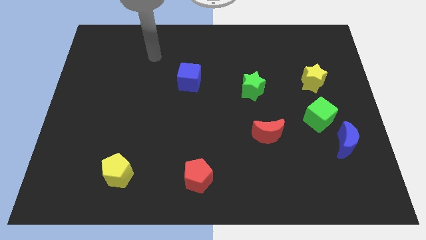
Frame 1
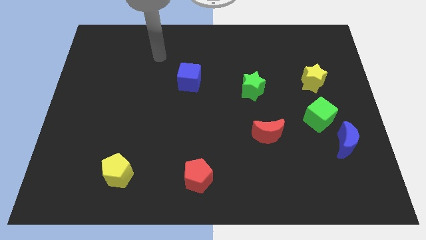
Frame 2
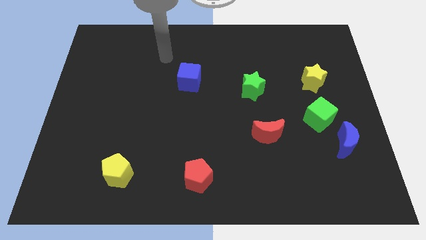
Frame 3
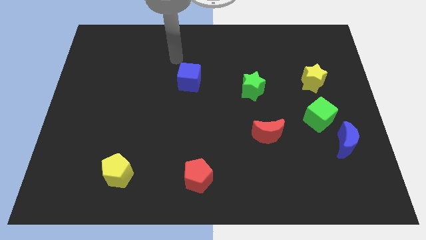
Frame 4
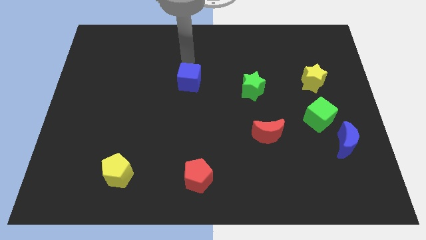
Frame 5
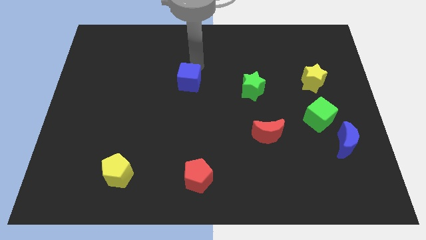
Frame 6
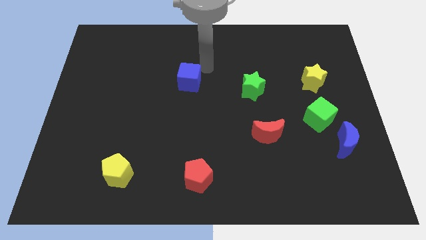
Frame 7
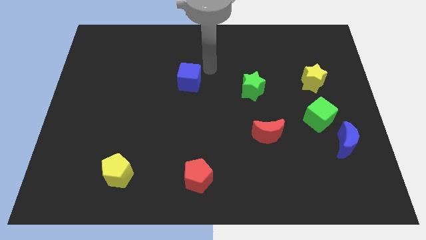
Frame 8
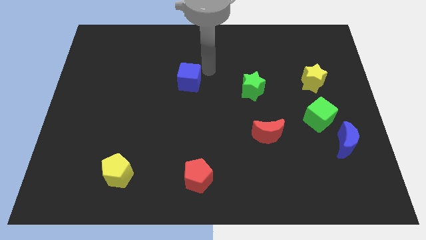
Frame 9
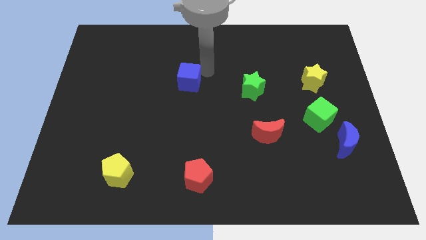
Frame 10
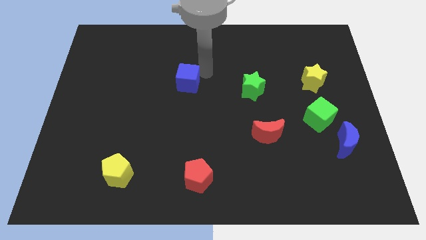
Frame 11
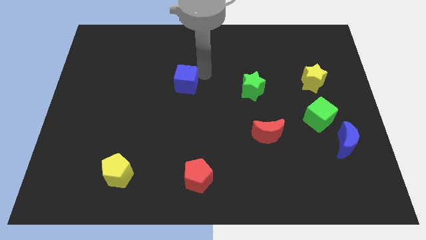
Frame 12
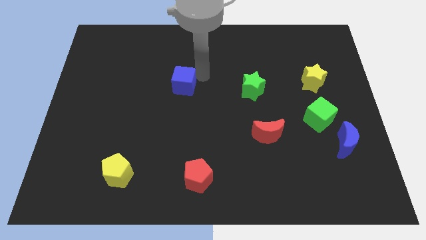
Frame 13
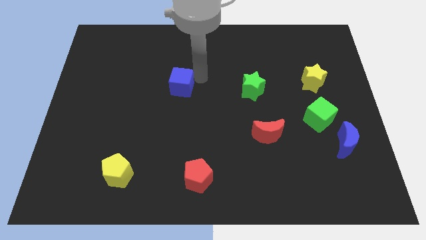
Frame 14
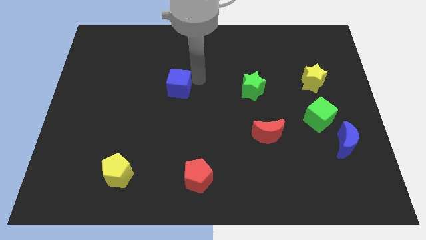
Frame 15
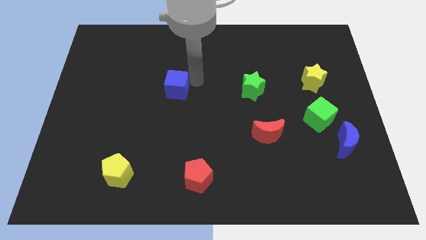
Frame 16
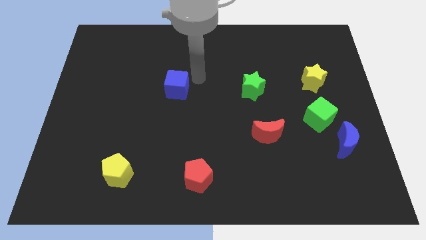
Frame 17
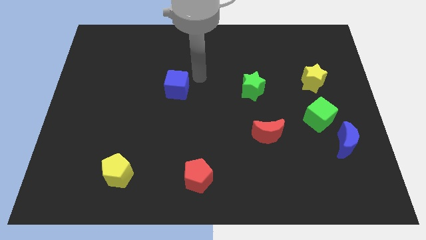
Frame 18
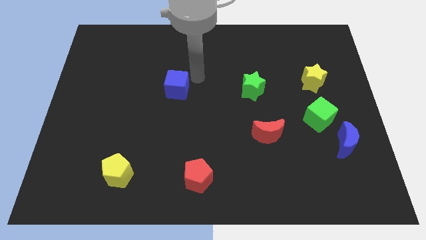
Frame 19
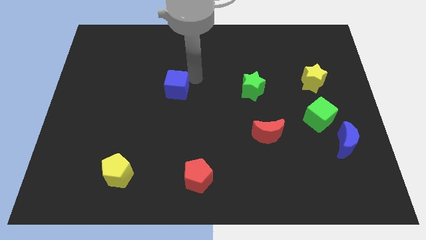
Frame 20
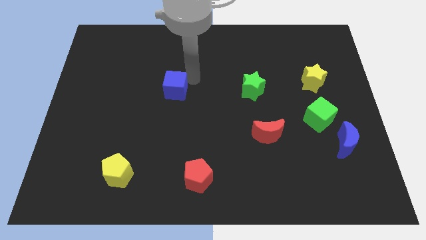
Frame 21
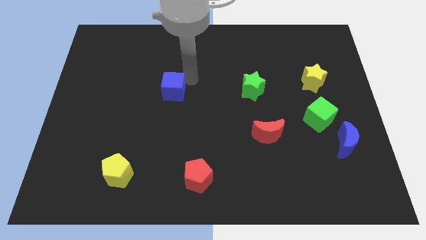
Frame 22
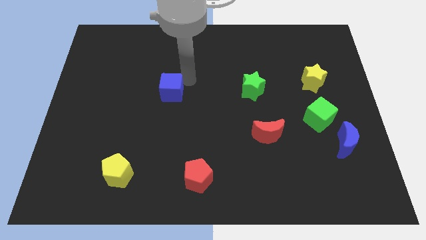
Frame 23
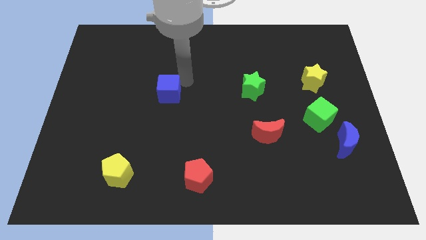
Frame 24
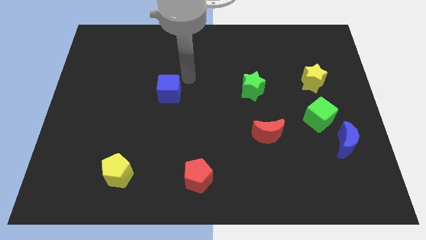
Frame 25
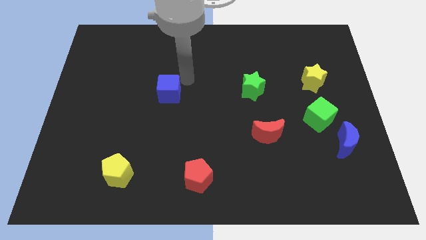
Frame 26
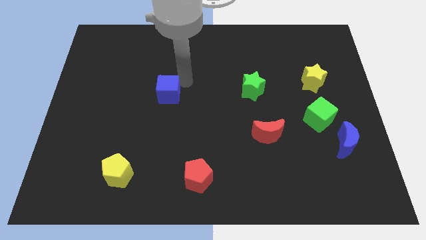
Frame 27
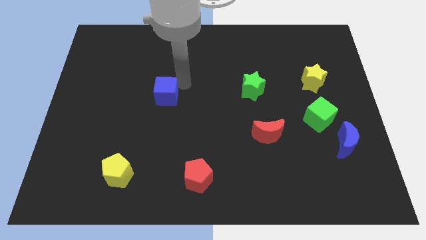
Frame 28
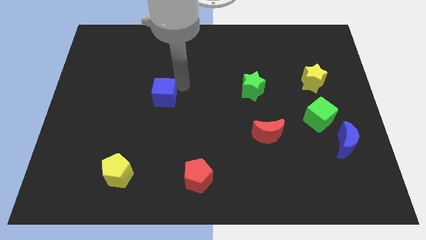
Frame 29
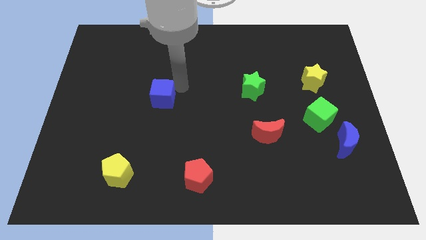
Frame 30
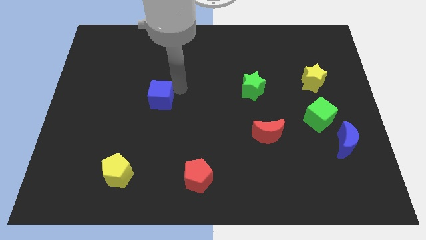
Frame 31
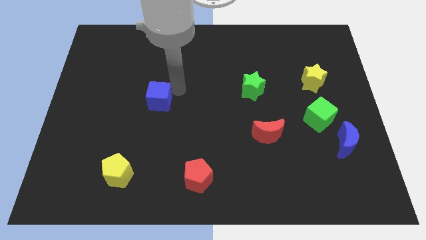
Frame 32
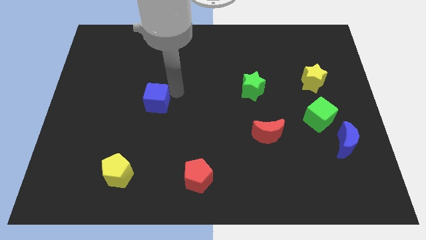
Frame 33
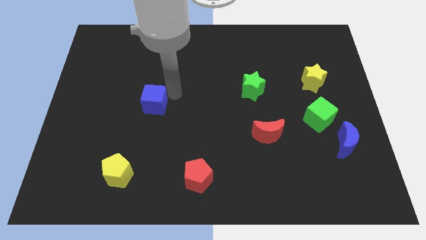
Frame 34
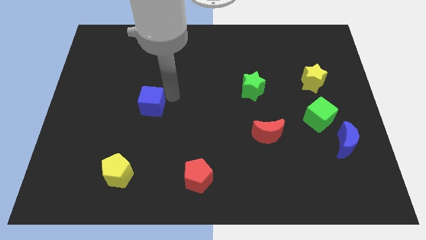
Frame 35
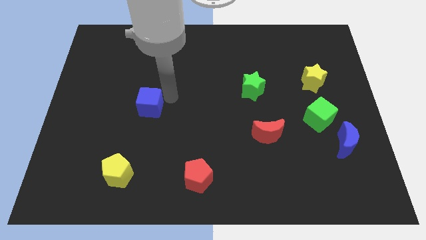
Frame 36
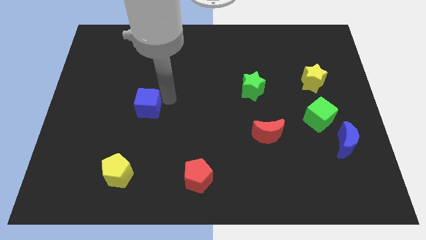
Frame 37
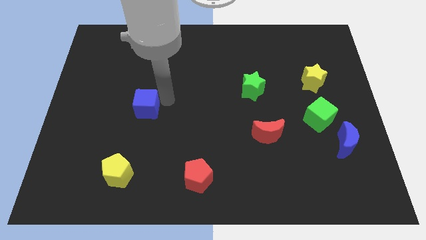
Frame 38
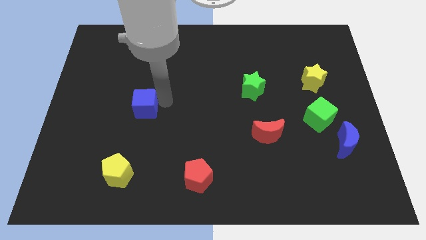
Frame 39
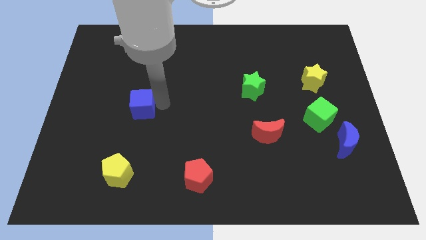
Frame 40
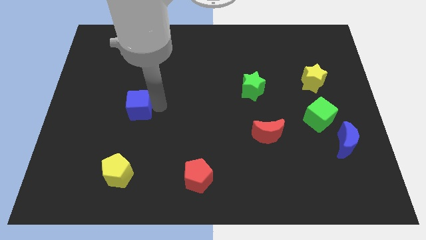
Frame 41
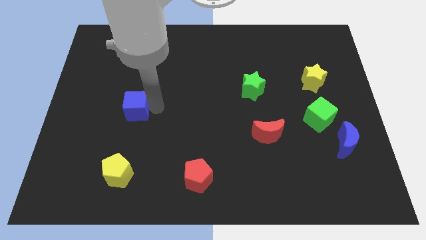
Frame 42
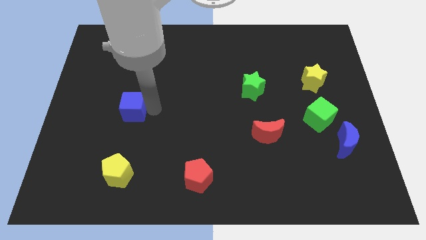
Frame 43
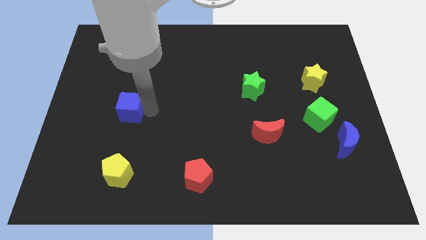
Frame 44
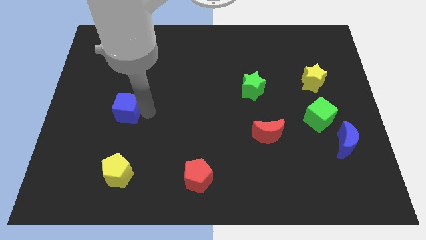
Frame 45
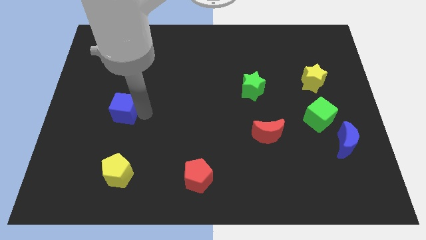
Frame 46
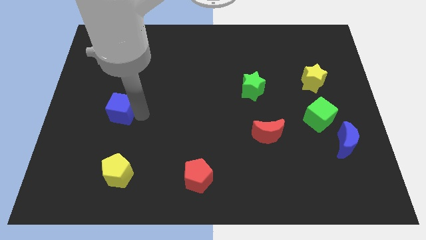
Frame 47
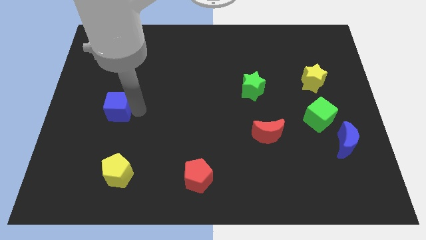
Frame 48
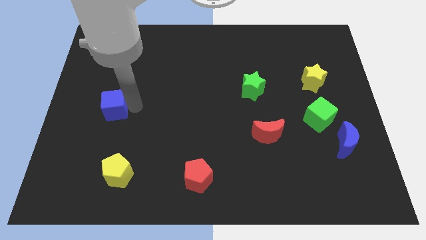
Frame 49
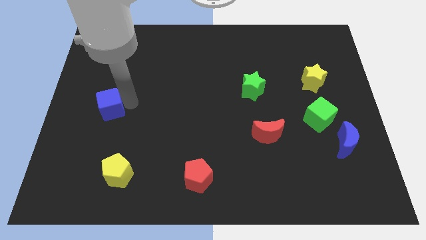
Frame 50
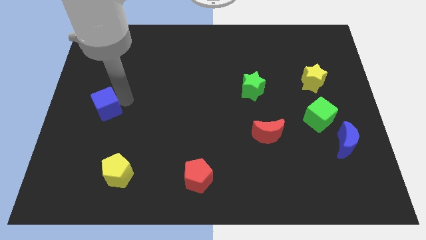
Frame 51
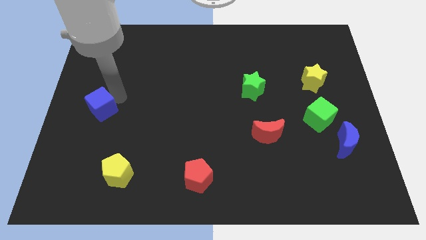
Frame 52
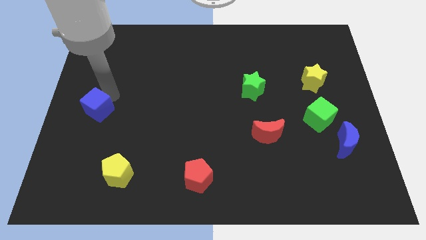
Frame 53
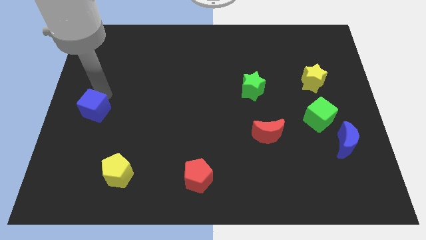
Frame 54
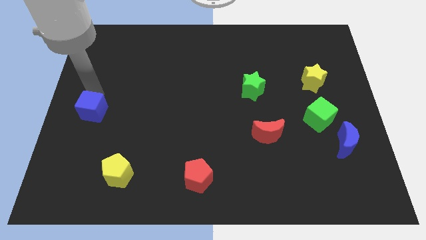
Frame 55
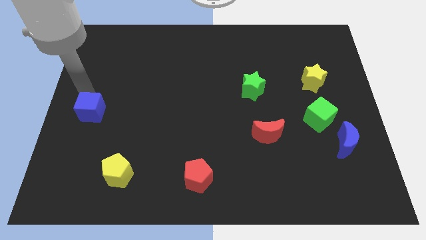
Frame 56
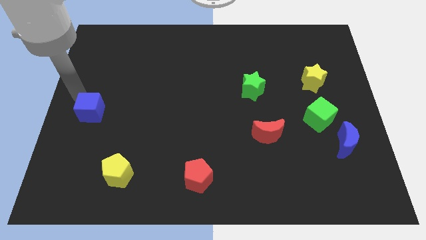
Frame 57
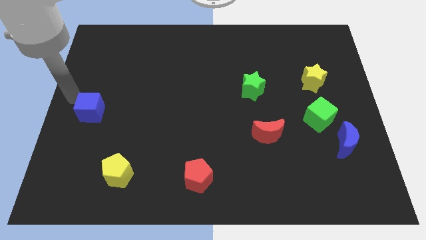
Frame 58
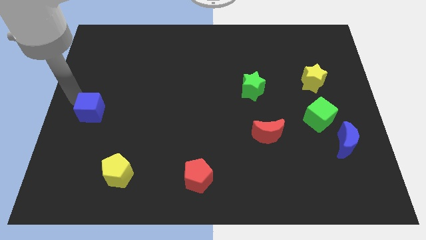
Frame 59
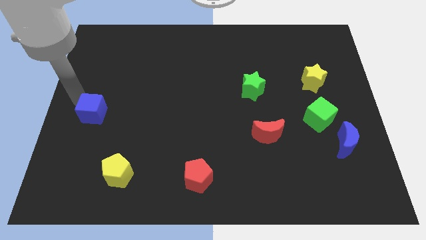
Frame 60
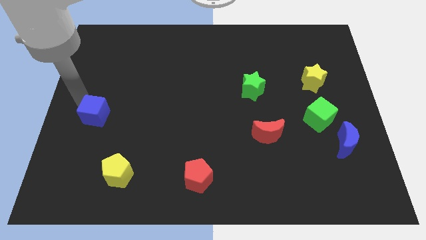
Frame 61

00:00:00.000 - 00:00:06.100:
push the blue cube diagonally downwards and to the left

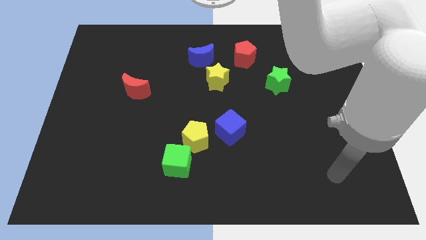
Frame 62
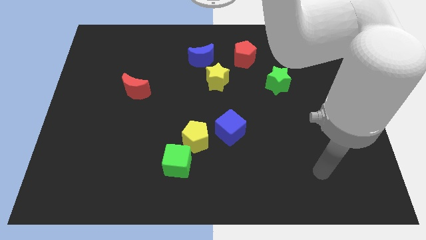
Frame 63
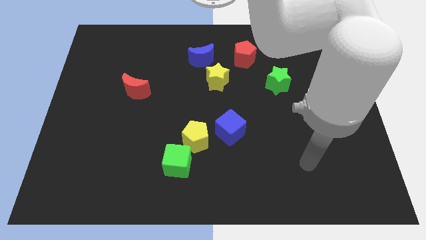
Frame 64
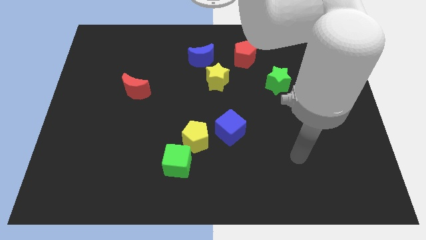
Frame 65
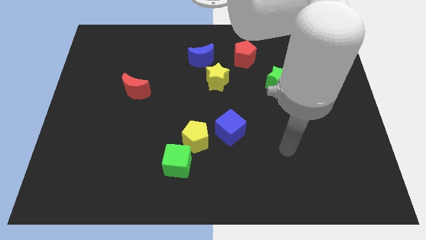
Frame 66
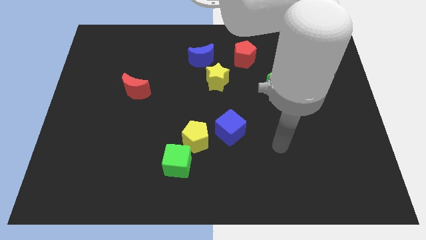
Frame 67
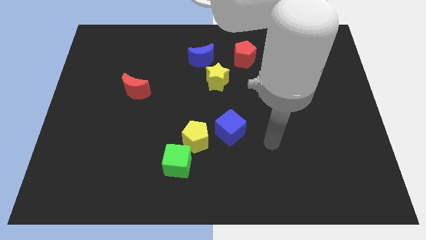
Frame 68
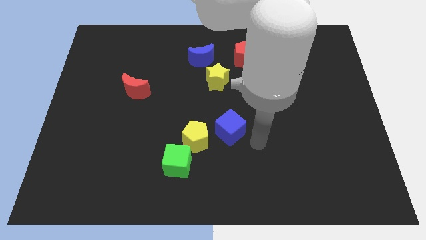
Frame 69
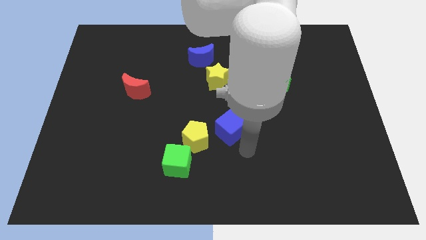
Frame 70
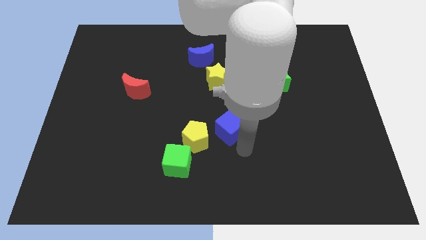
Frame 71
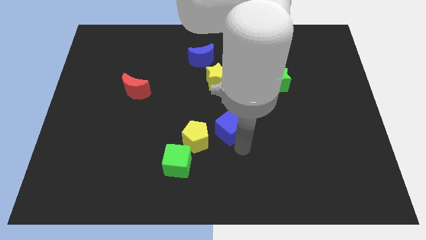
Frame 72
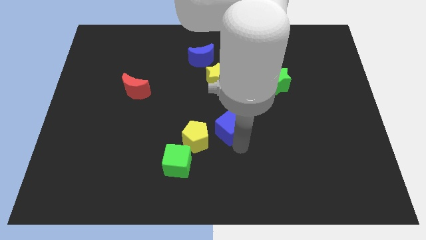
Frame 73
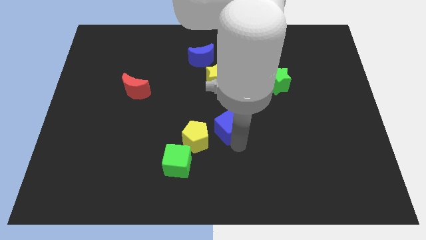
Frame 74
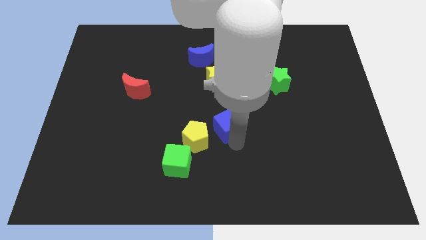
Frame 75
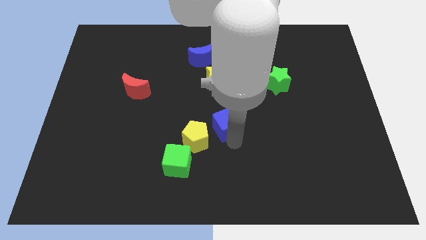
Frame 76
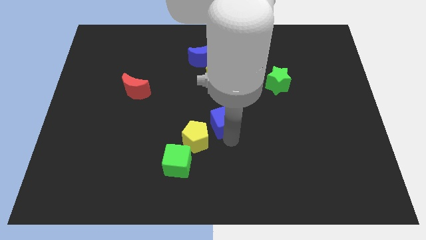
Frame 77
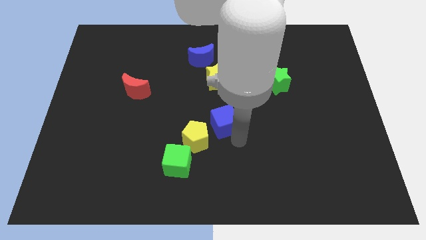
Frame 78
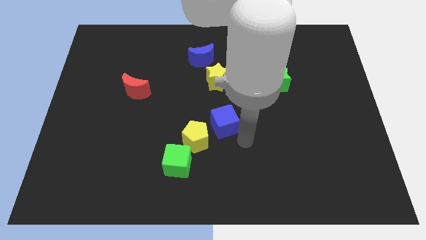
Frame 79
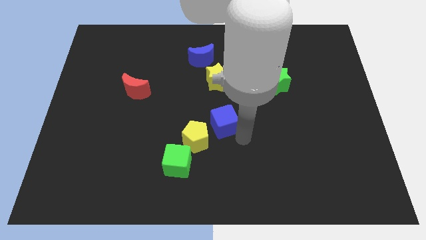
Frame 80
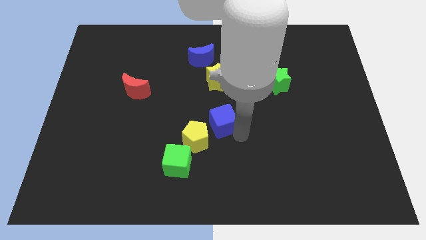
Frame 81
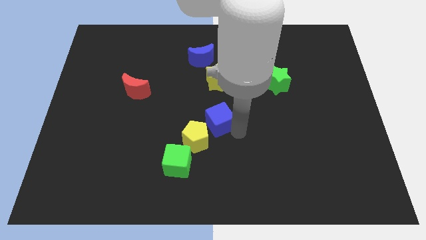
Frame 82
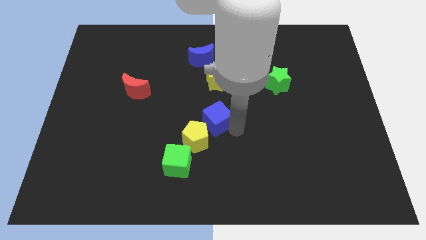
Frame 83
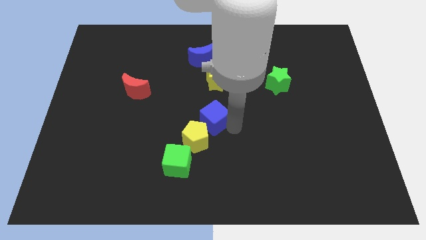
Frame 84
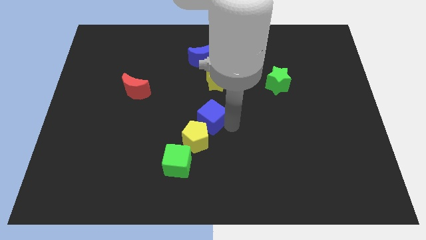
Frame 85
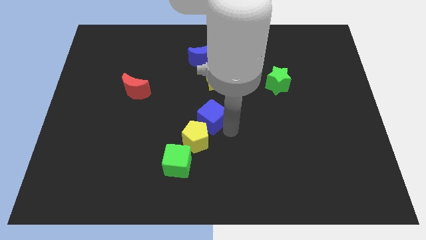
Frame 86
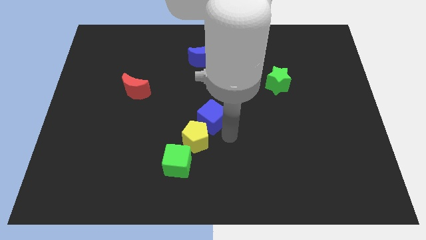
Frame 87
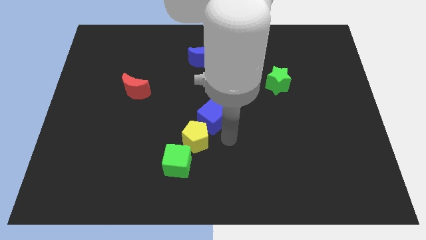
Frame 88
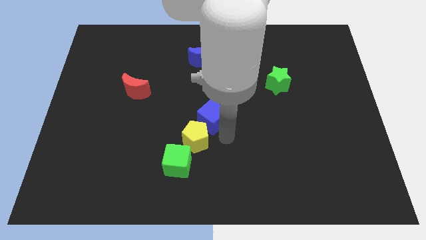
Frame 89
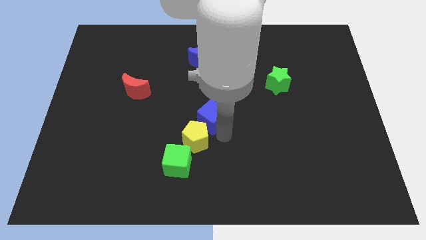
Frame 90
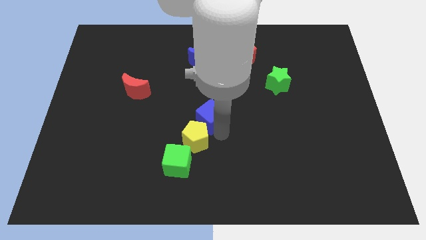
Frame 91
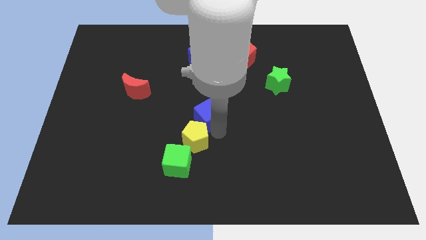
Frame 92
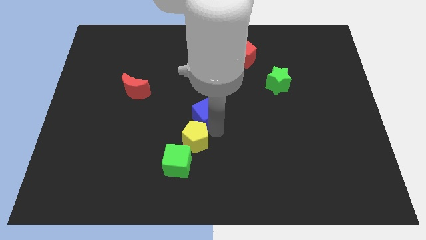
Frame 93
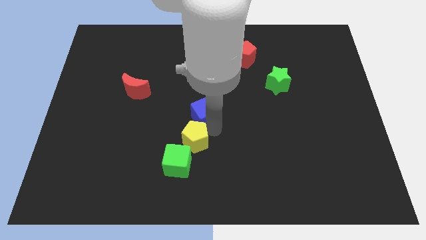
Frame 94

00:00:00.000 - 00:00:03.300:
slightly push the blue cube up and to the left diagonally
